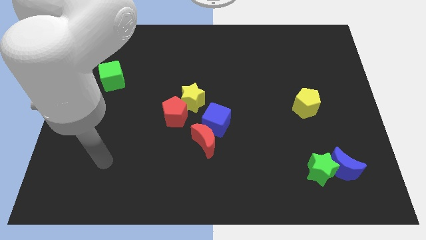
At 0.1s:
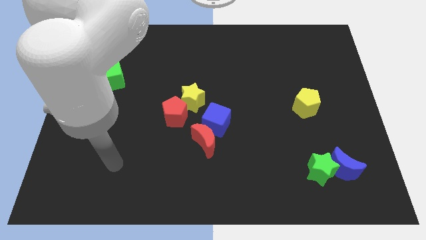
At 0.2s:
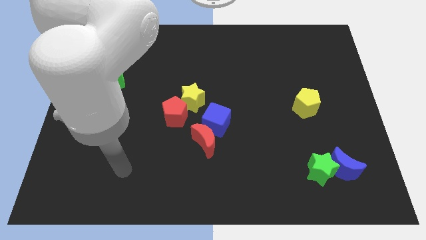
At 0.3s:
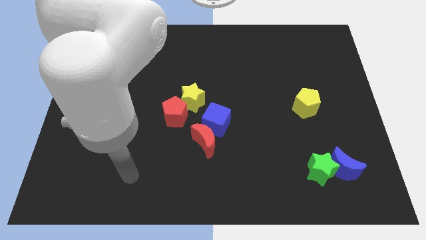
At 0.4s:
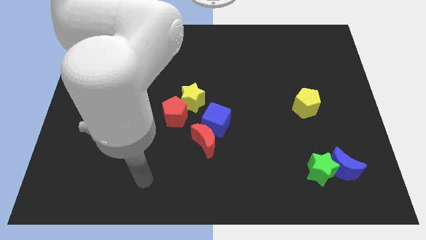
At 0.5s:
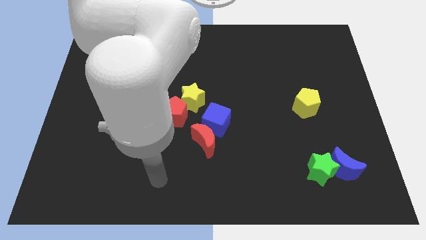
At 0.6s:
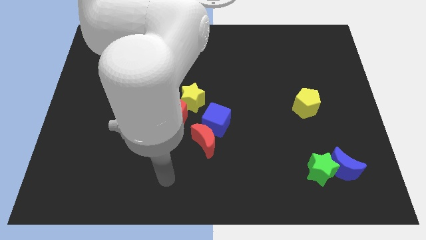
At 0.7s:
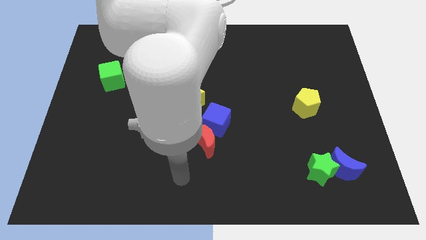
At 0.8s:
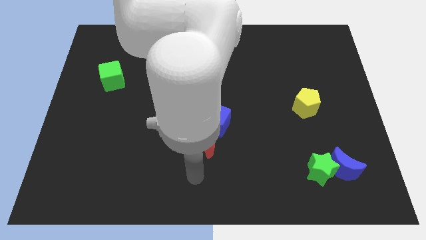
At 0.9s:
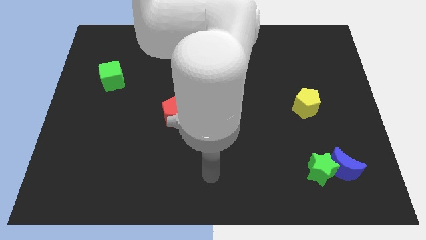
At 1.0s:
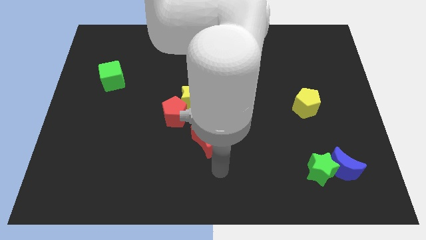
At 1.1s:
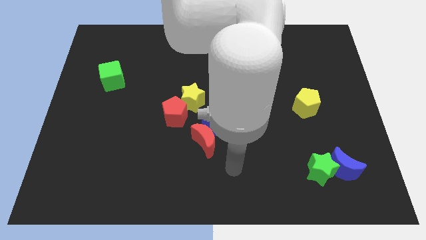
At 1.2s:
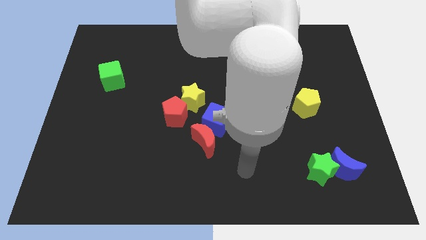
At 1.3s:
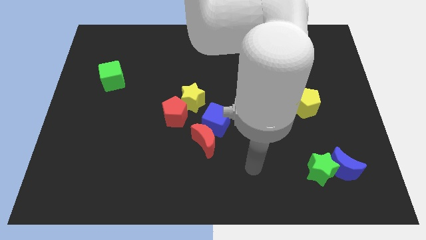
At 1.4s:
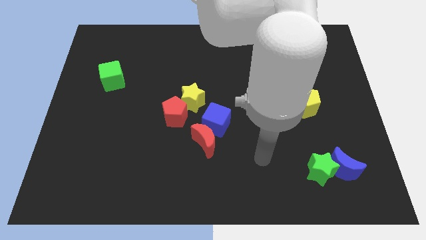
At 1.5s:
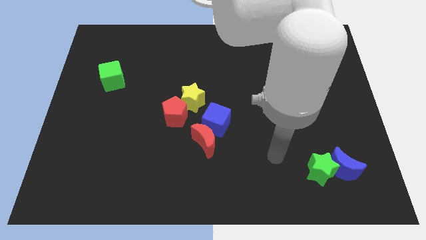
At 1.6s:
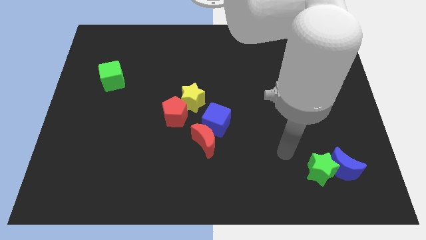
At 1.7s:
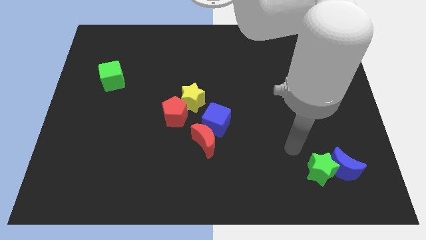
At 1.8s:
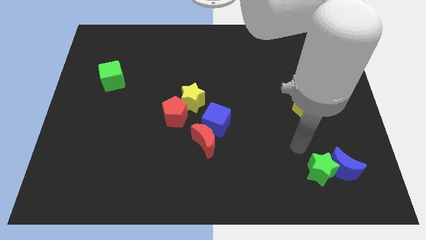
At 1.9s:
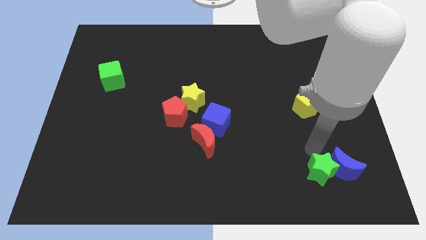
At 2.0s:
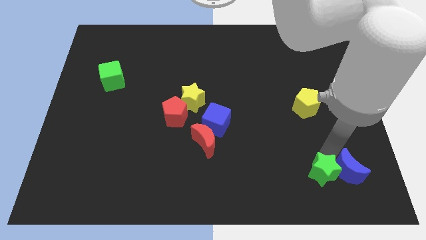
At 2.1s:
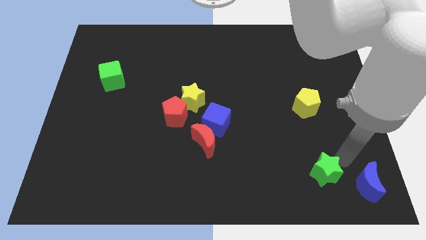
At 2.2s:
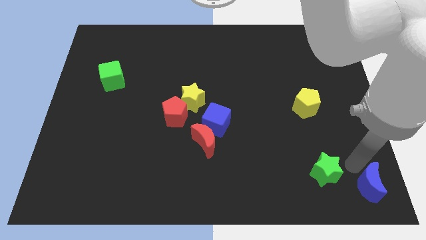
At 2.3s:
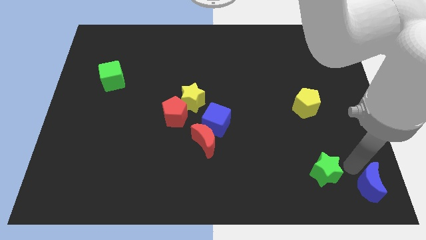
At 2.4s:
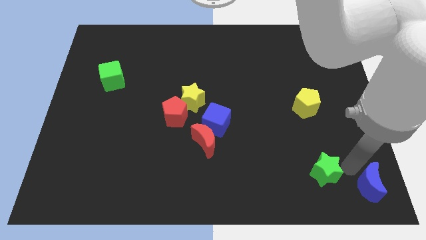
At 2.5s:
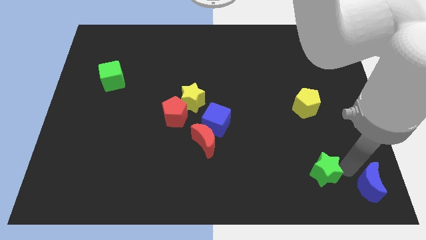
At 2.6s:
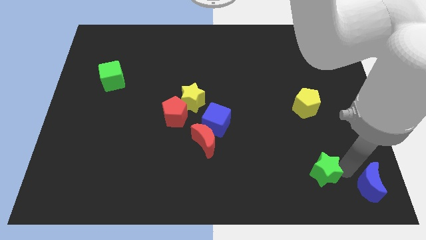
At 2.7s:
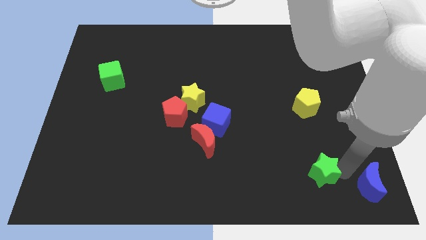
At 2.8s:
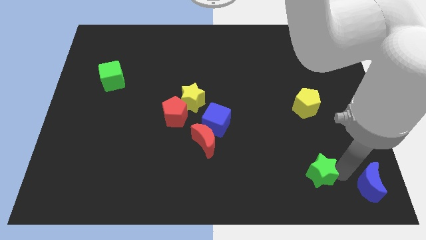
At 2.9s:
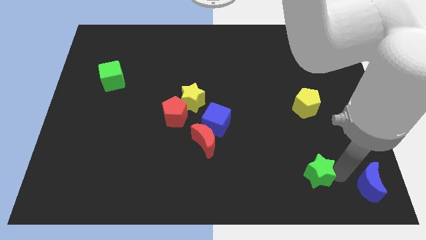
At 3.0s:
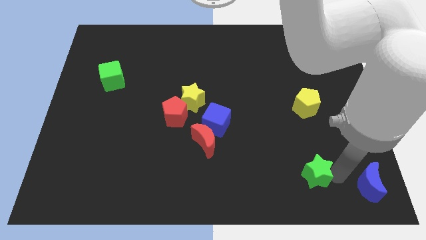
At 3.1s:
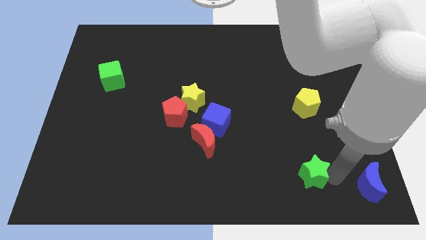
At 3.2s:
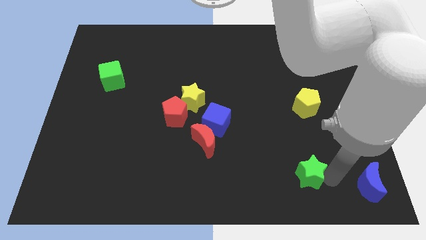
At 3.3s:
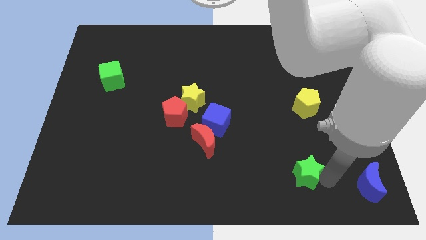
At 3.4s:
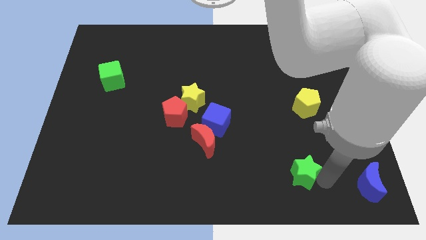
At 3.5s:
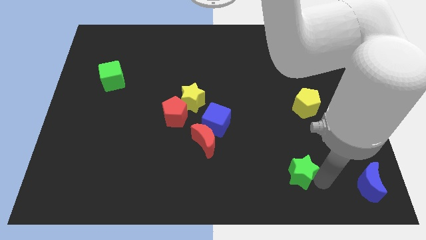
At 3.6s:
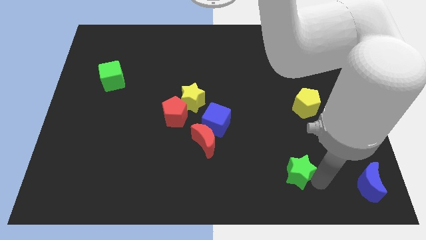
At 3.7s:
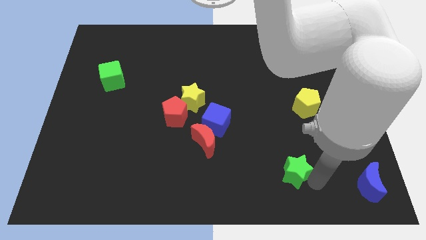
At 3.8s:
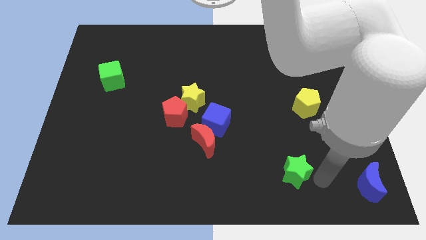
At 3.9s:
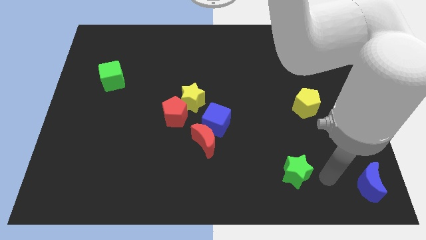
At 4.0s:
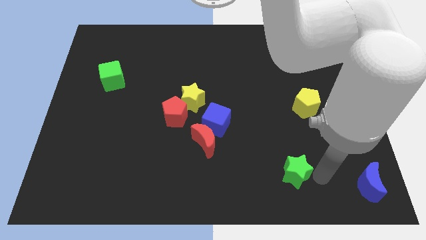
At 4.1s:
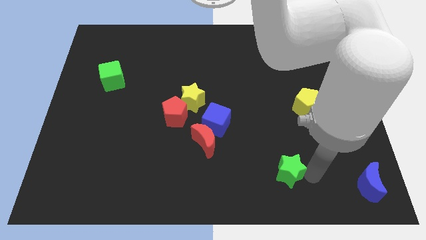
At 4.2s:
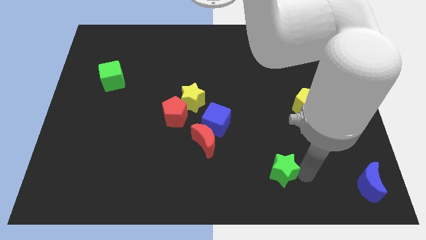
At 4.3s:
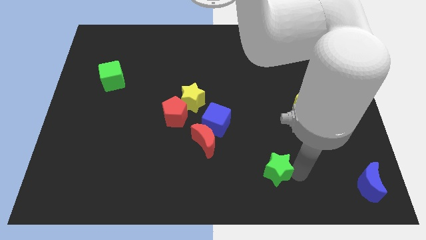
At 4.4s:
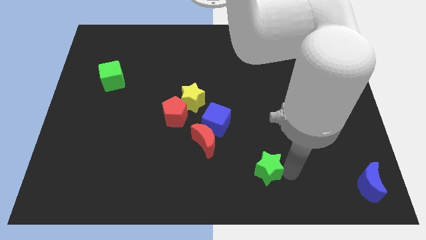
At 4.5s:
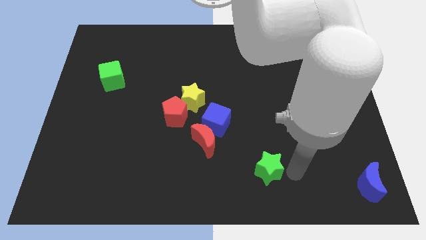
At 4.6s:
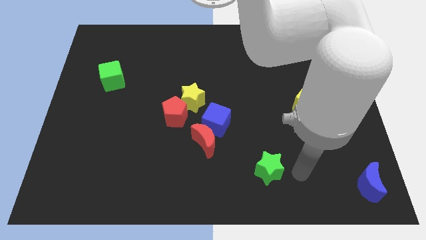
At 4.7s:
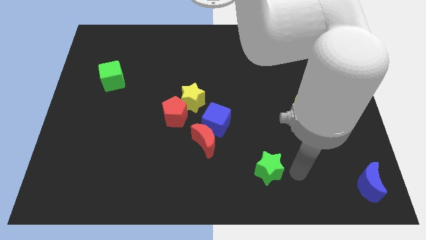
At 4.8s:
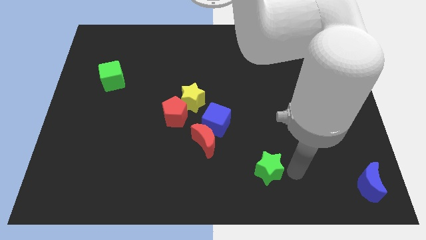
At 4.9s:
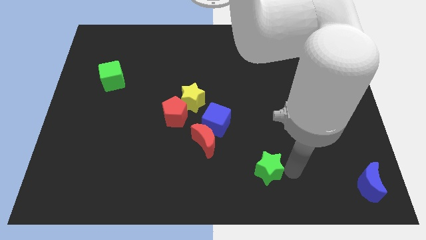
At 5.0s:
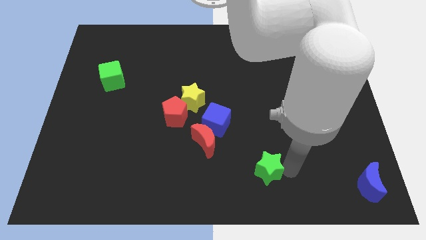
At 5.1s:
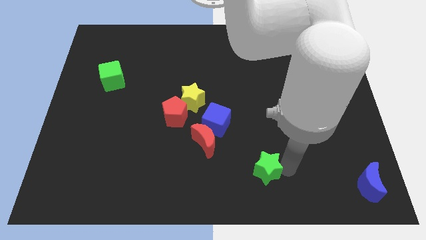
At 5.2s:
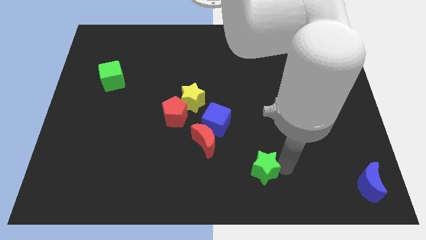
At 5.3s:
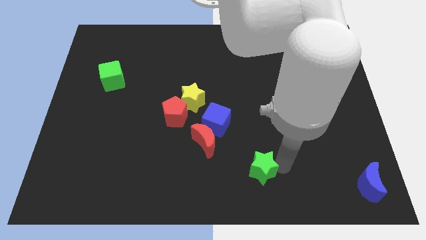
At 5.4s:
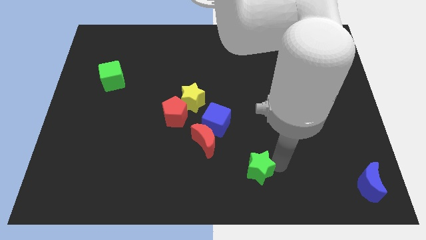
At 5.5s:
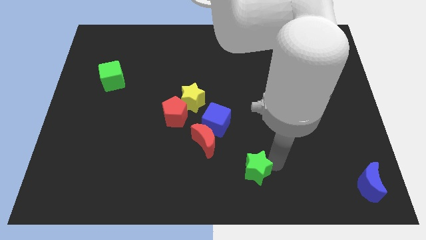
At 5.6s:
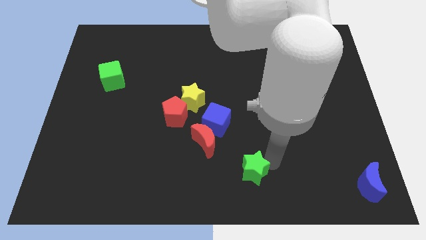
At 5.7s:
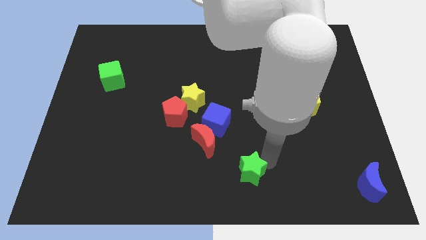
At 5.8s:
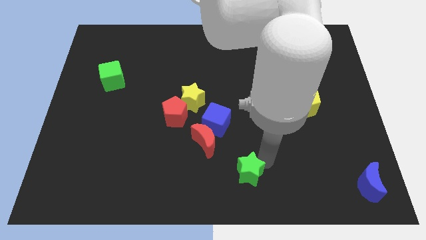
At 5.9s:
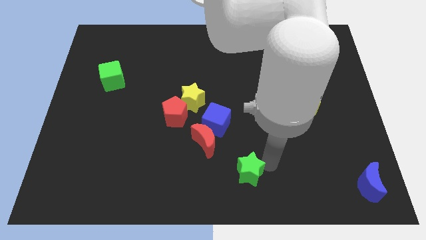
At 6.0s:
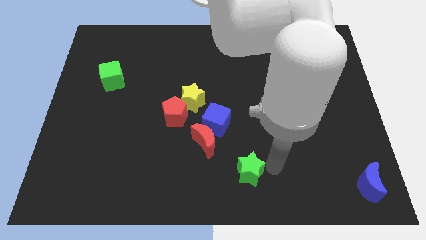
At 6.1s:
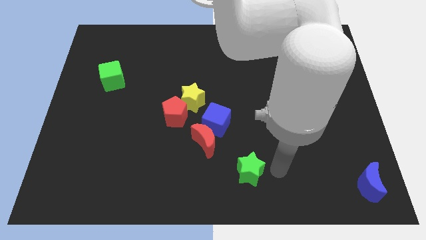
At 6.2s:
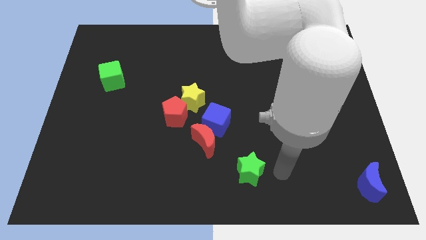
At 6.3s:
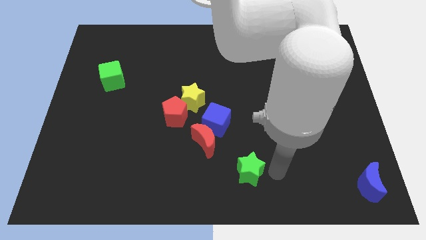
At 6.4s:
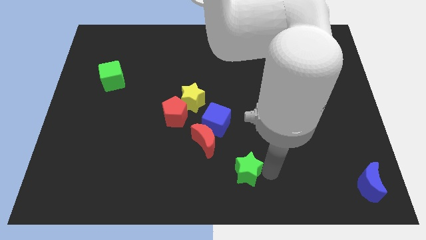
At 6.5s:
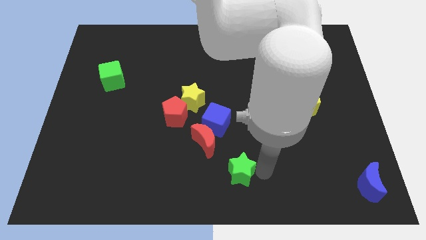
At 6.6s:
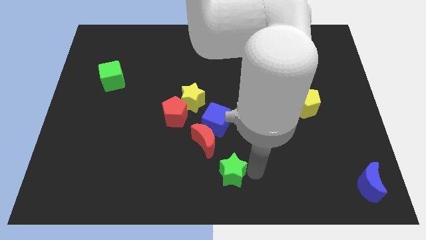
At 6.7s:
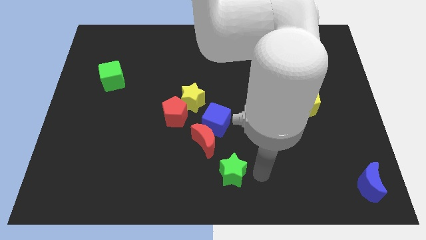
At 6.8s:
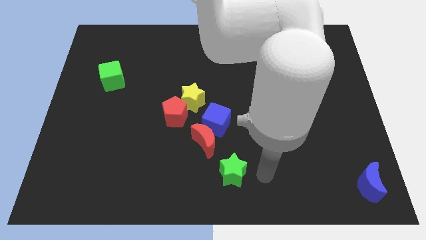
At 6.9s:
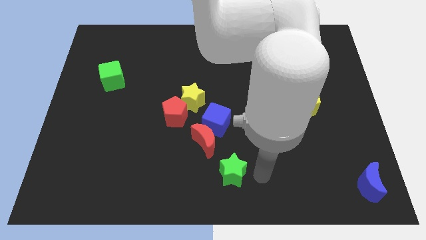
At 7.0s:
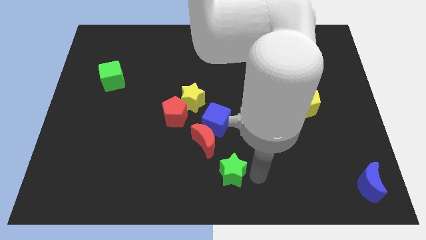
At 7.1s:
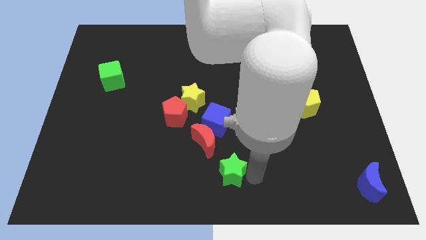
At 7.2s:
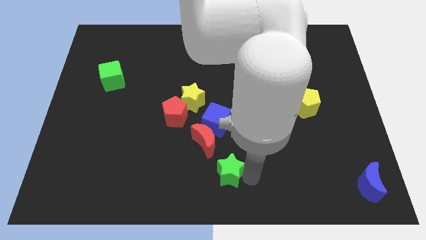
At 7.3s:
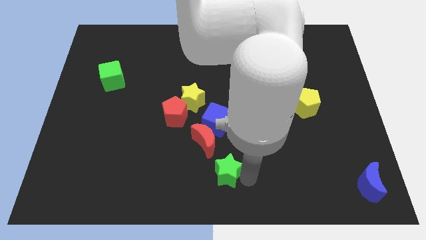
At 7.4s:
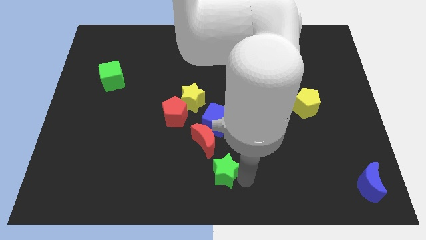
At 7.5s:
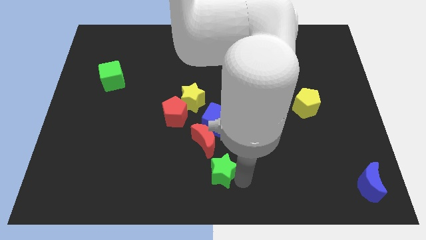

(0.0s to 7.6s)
move the green star left
